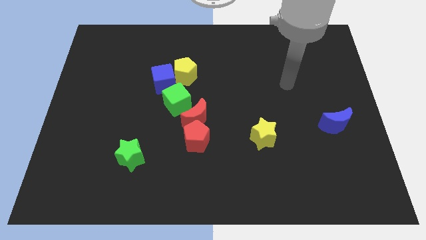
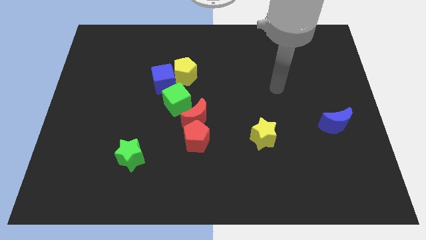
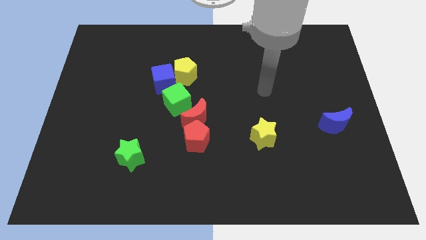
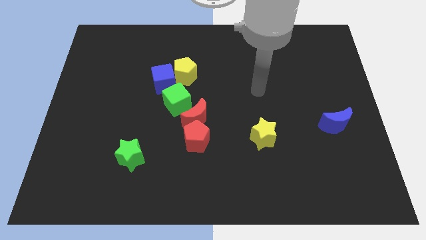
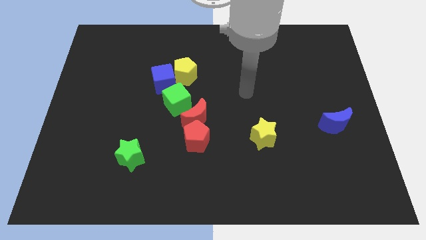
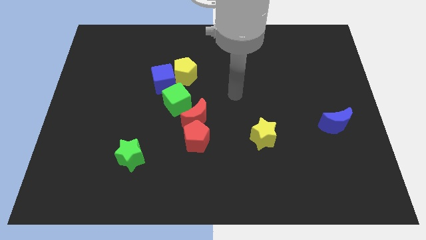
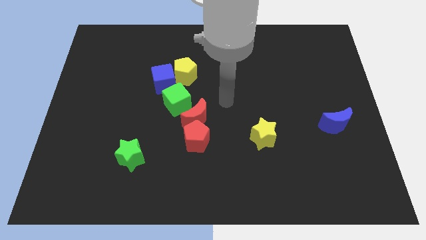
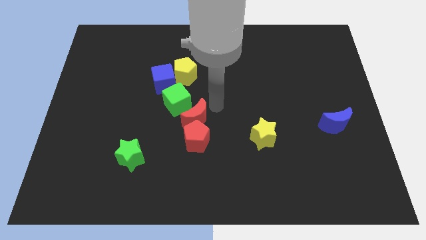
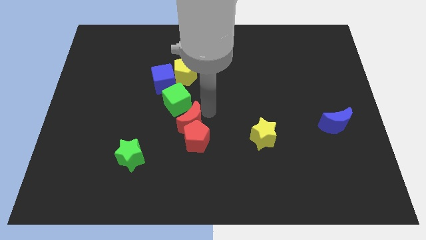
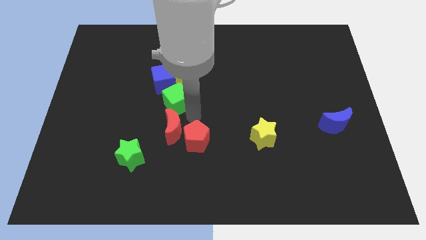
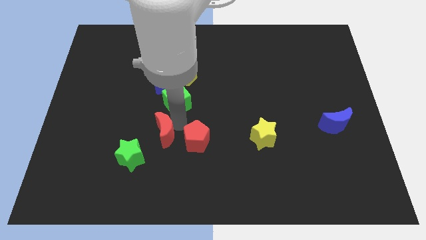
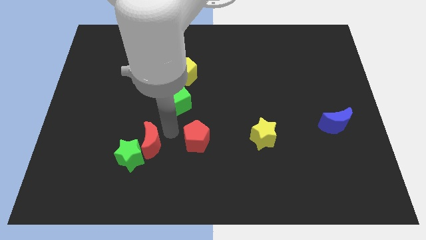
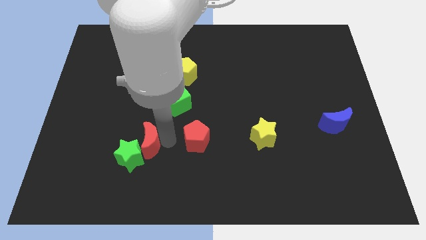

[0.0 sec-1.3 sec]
move the red pentagon away from the red moon

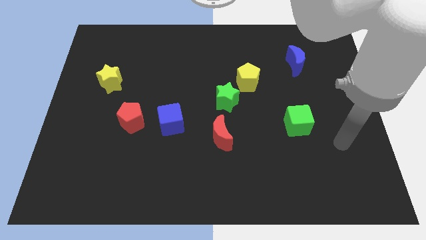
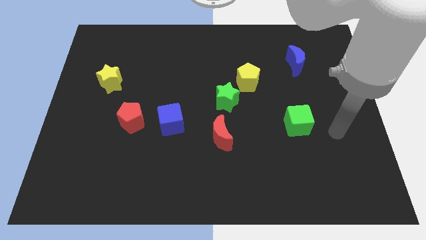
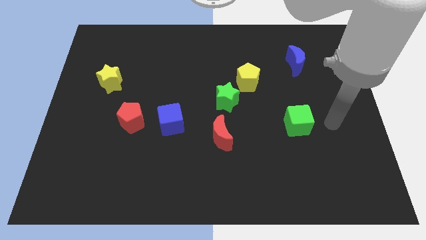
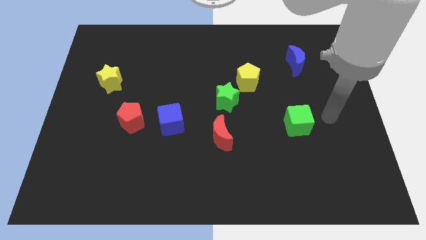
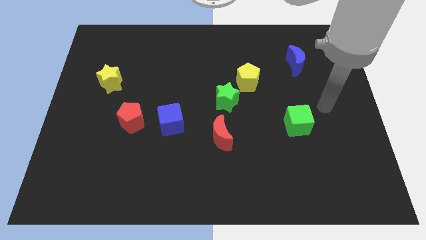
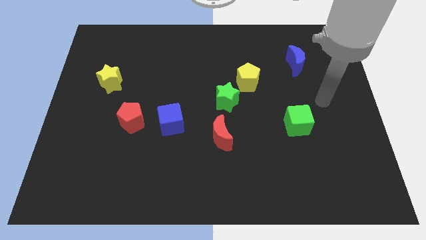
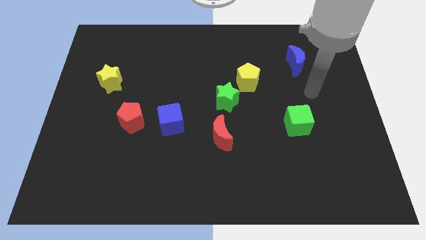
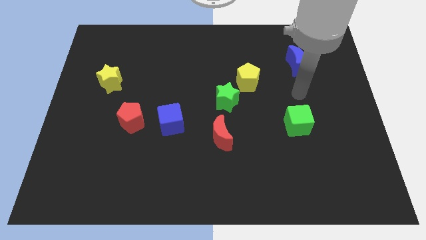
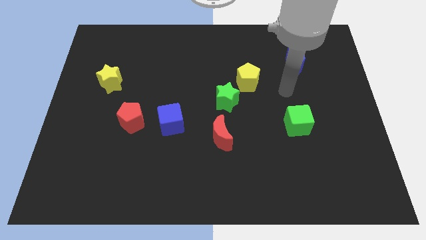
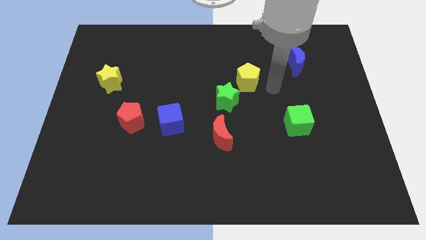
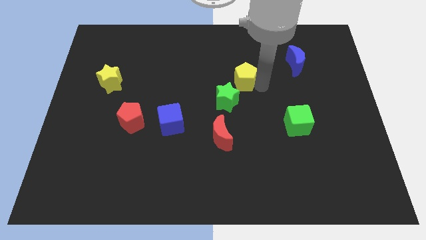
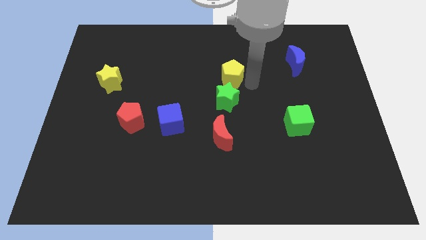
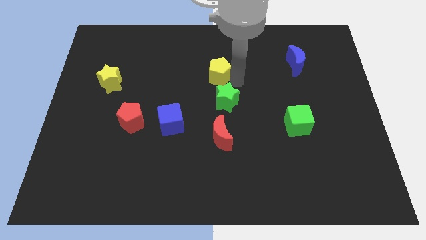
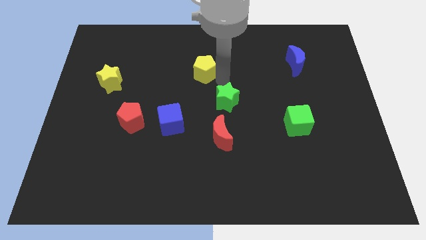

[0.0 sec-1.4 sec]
move the green star away from the yellow pentagon

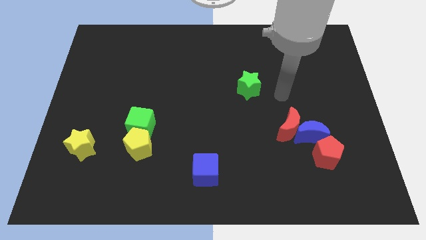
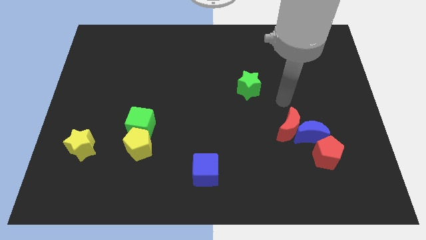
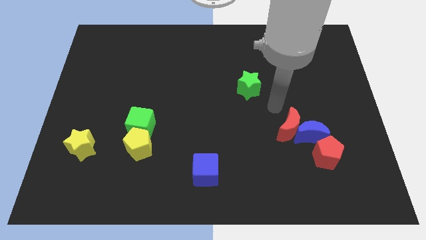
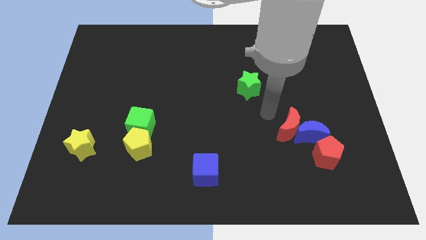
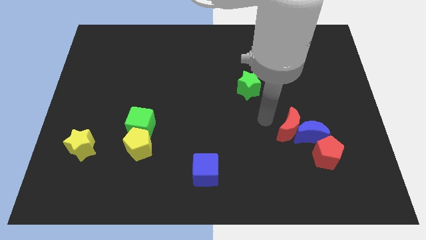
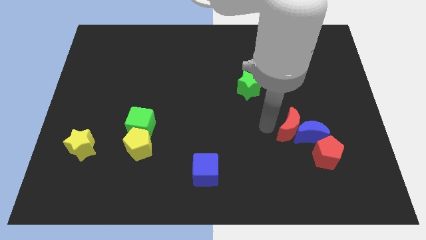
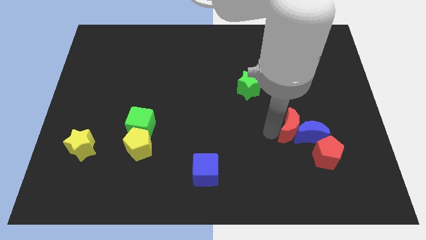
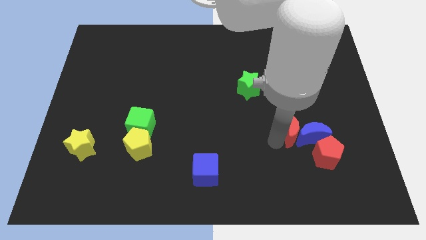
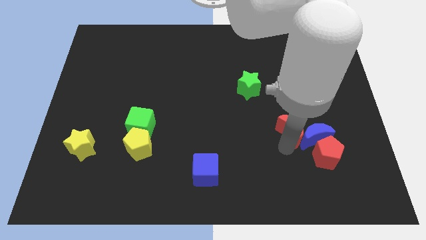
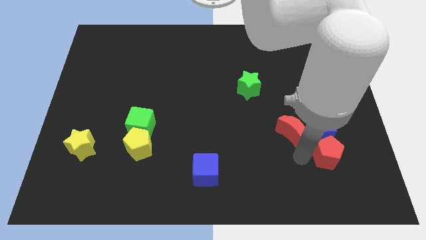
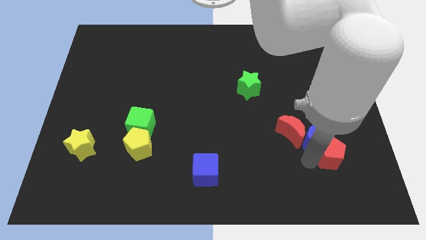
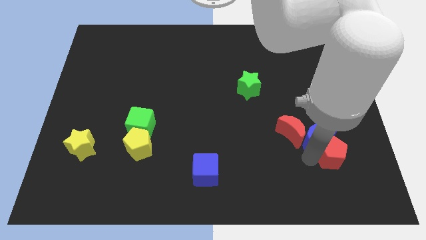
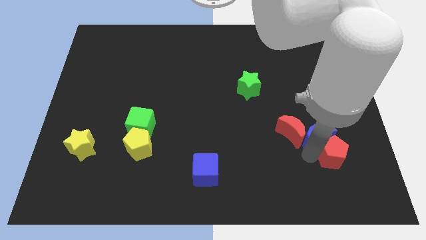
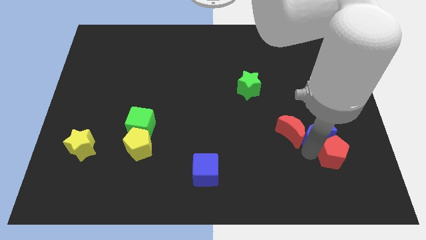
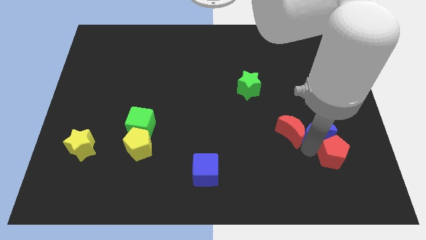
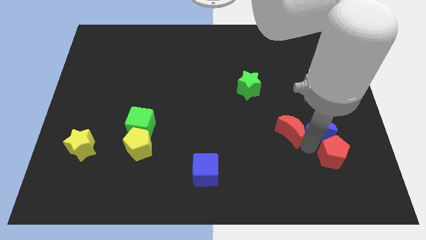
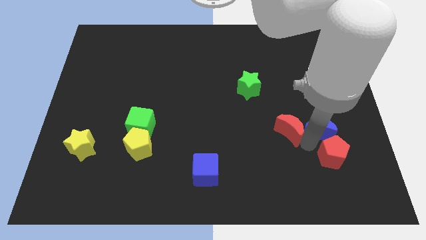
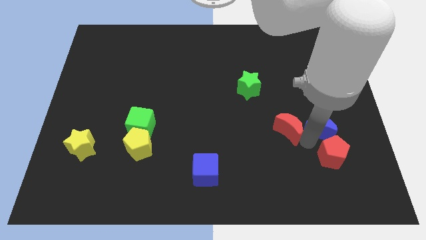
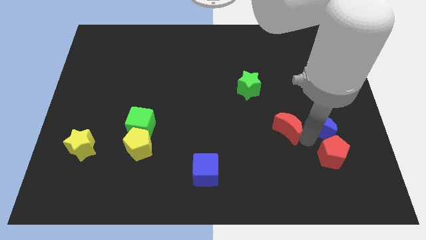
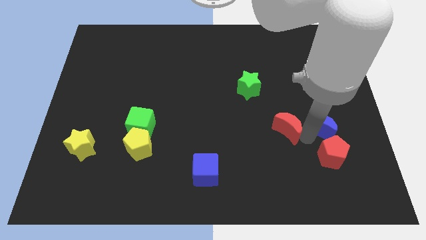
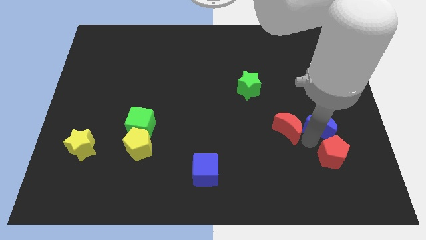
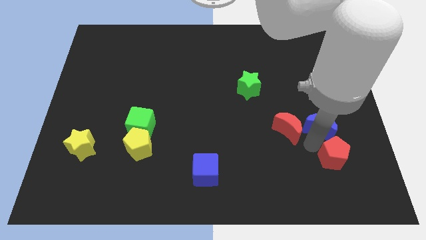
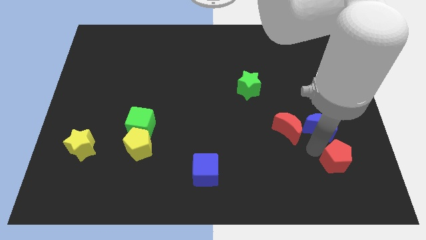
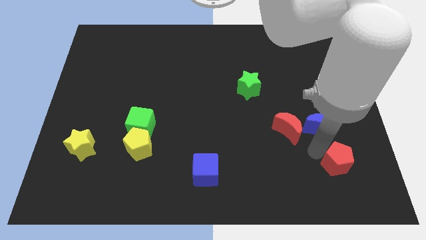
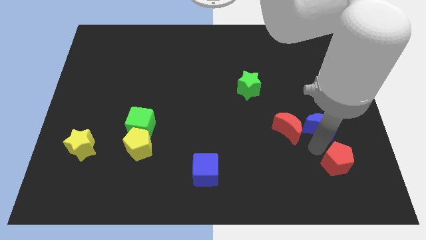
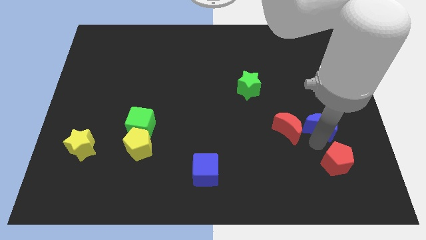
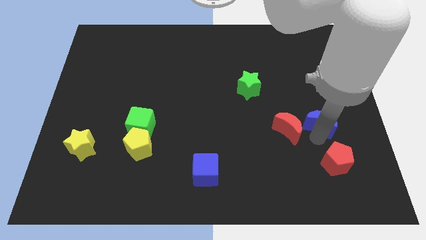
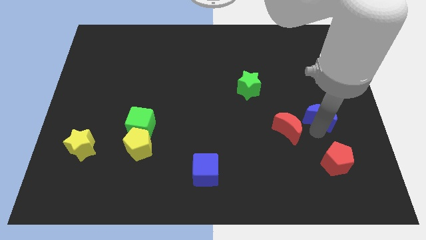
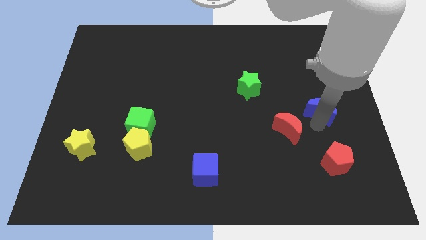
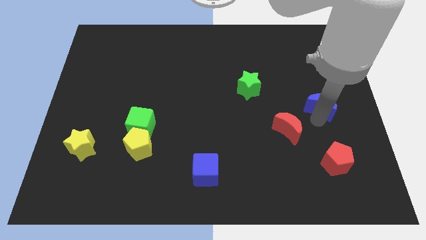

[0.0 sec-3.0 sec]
pull the blue moon apart from the red moon and red pentagon

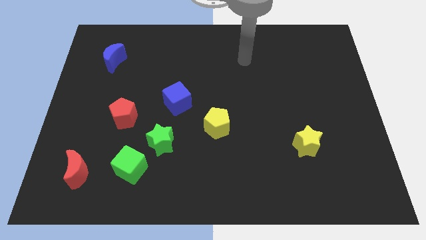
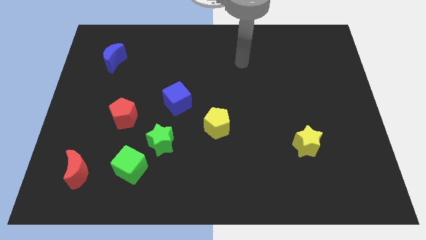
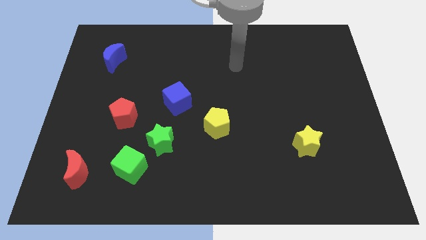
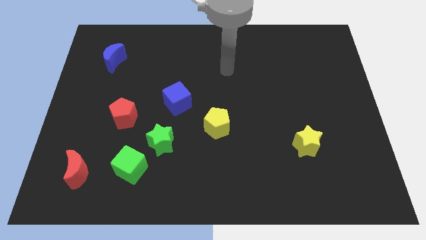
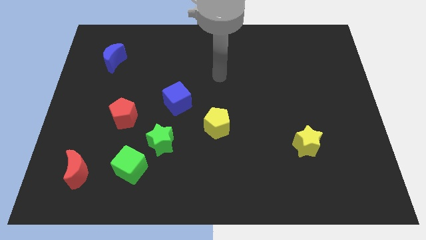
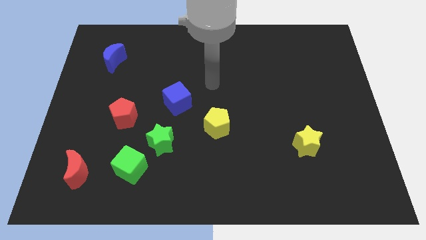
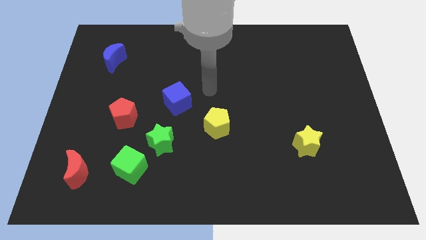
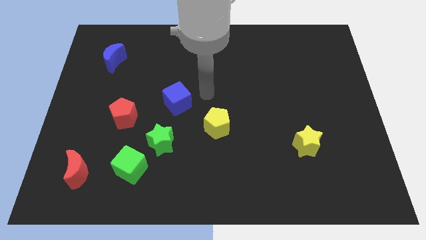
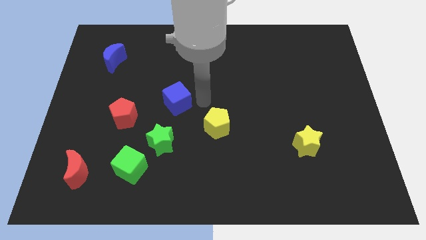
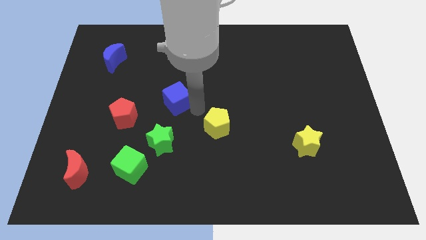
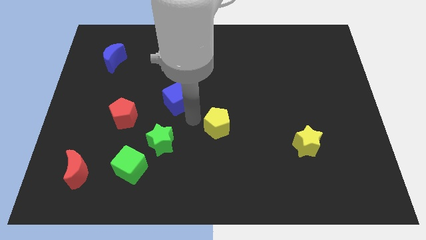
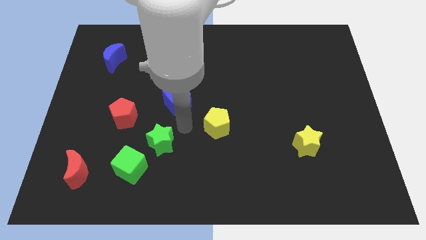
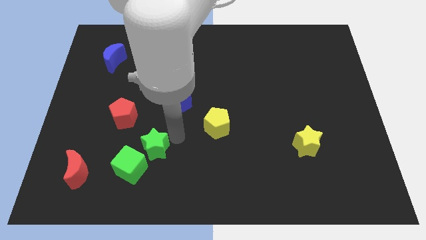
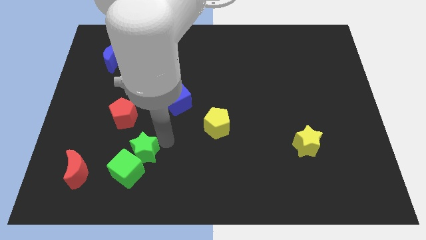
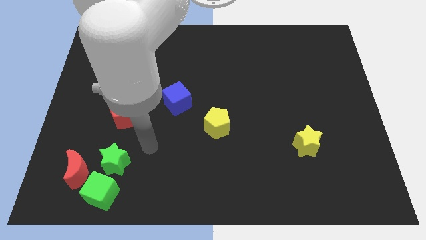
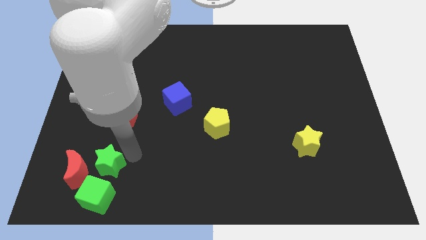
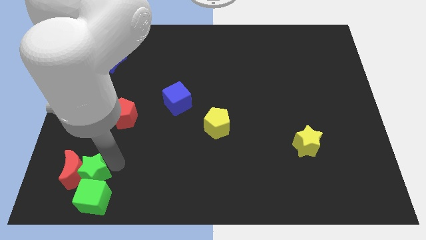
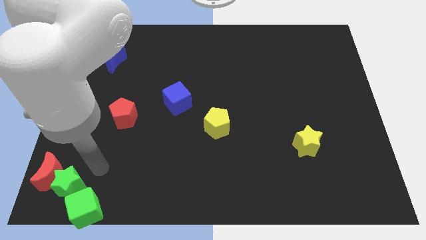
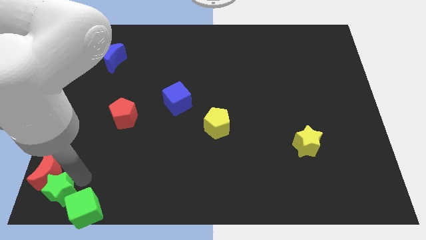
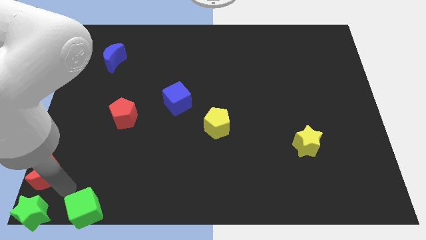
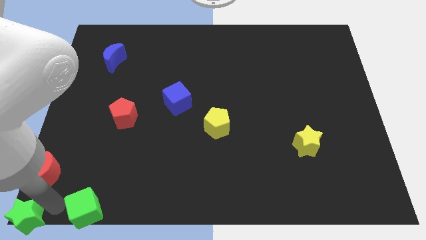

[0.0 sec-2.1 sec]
separate the green cube from the green star

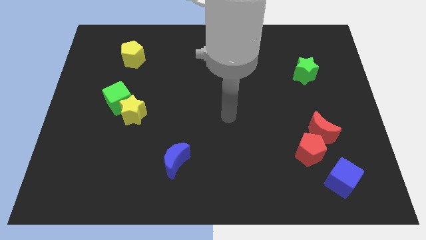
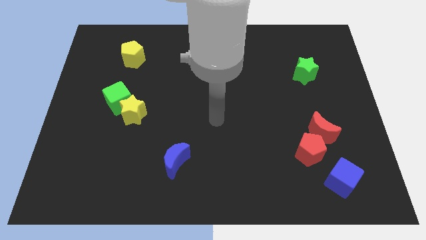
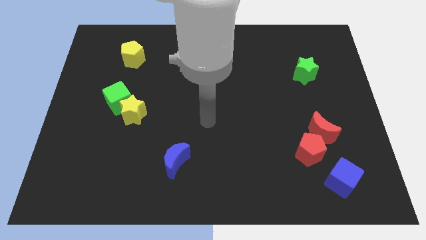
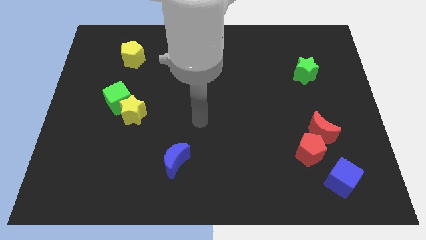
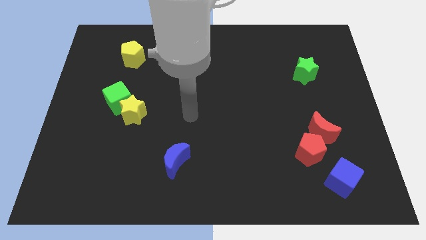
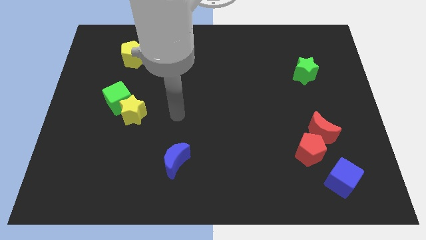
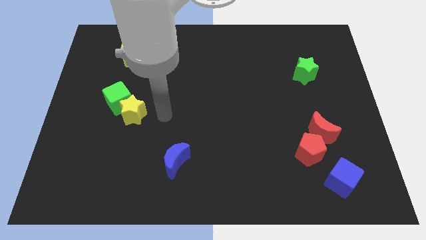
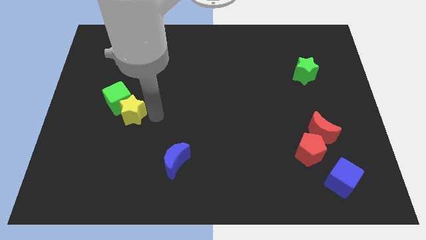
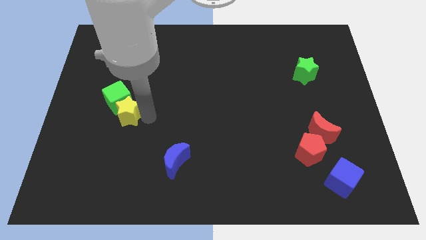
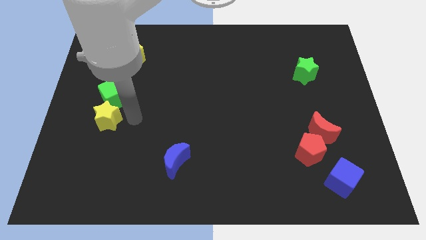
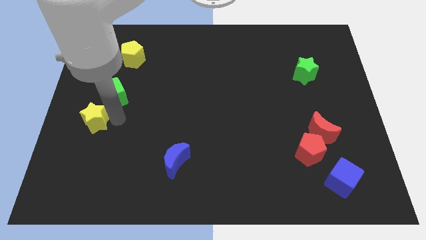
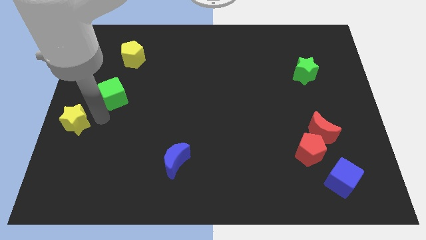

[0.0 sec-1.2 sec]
move the green cube away from the yellow star

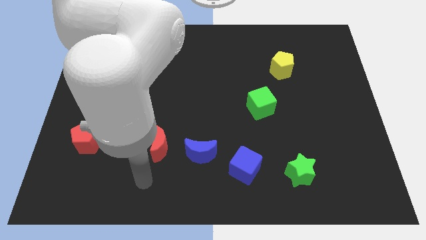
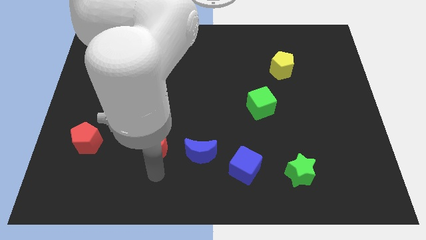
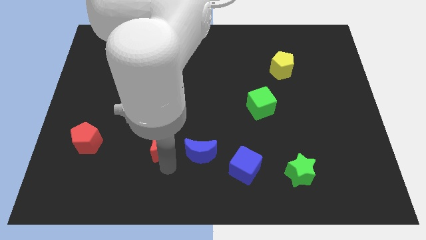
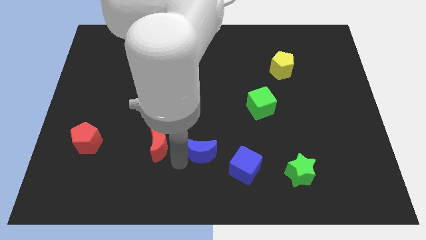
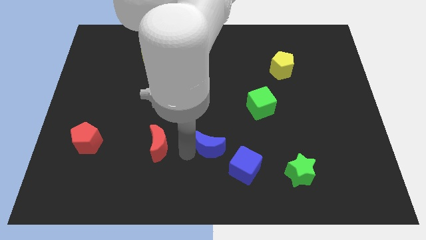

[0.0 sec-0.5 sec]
pull the red moon apart from the blue moon
